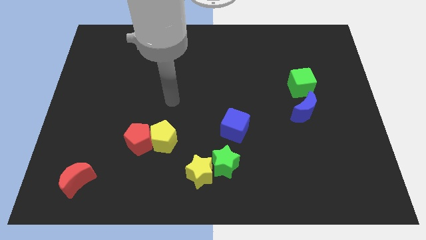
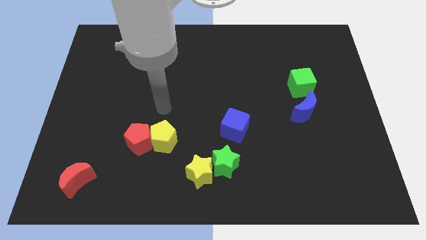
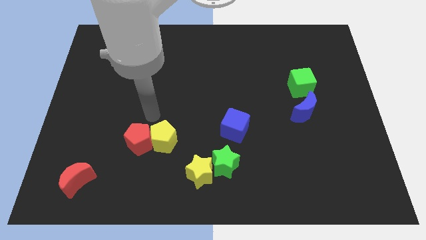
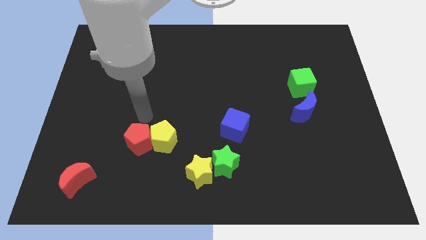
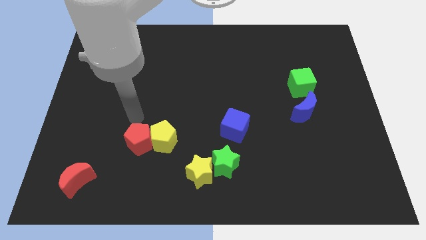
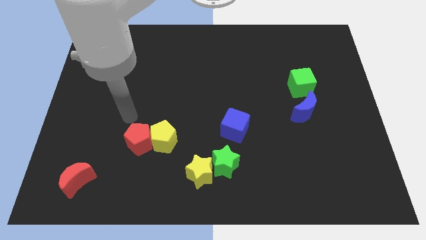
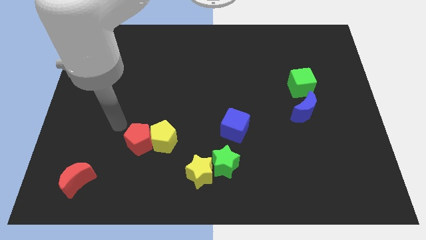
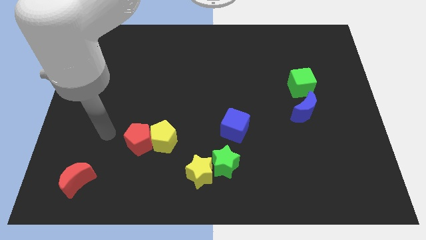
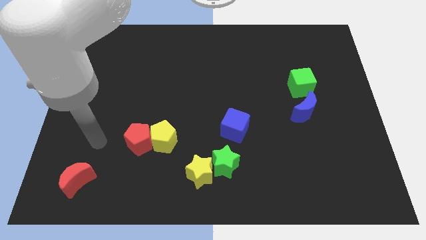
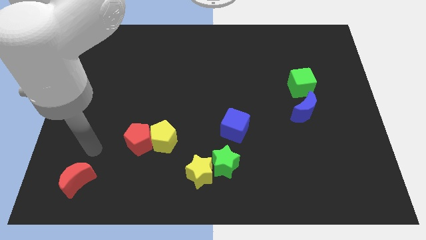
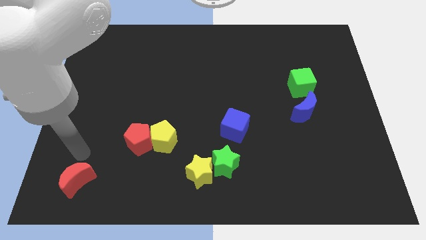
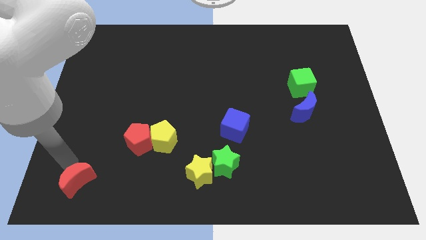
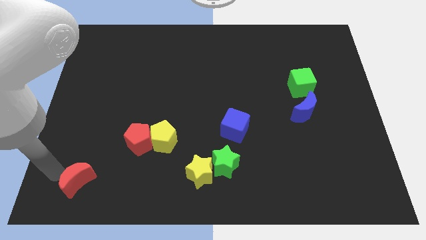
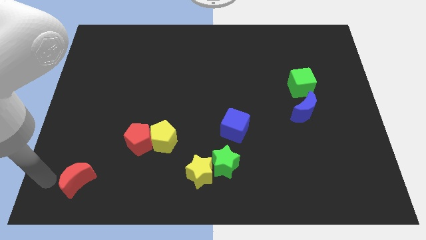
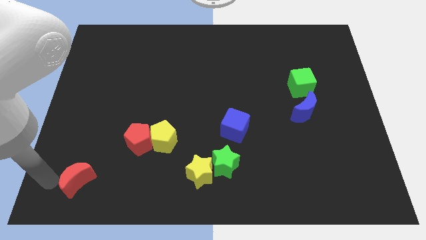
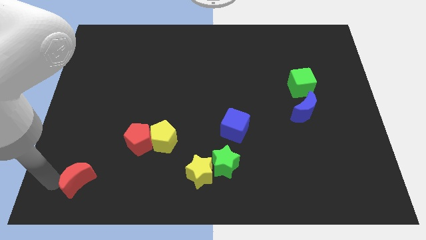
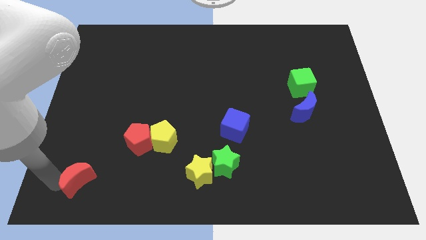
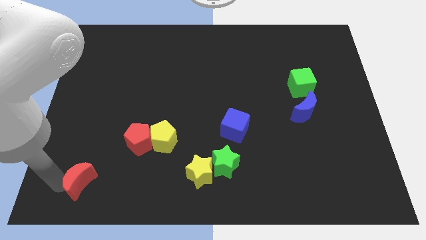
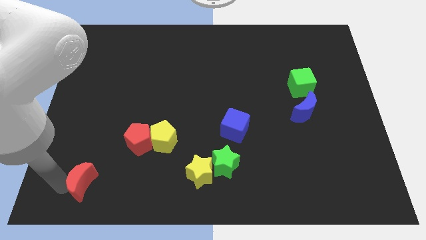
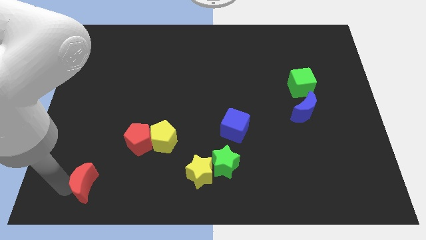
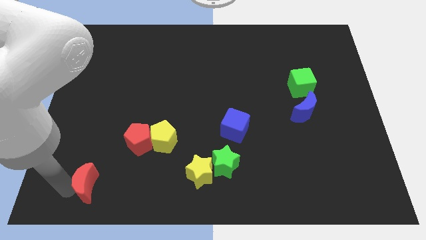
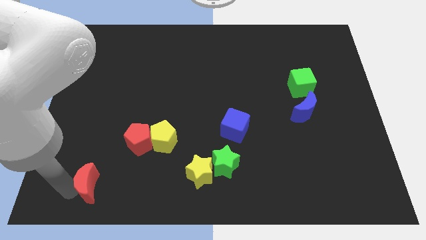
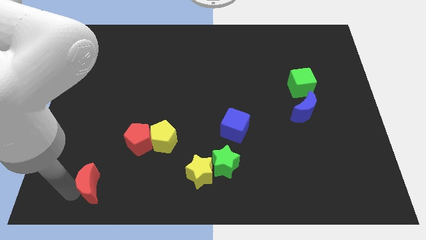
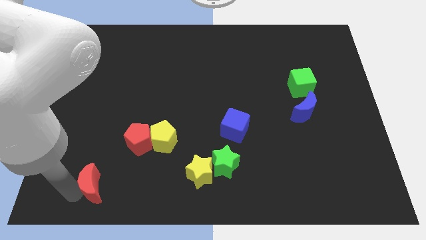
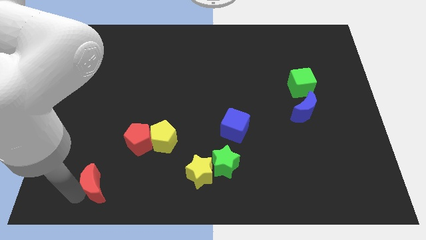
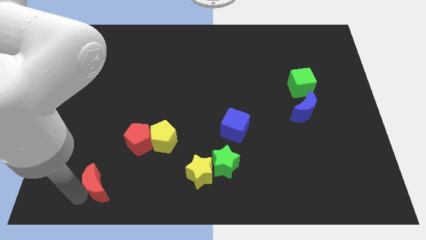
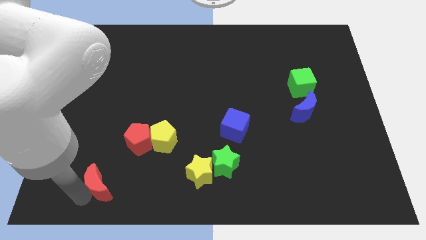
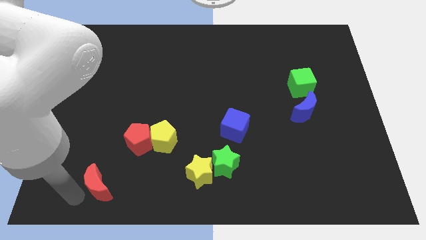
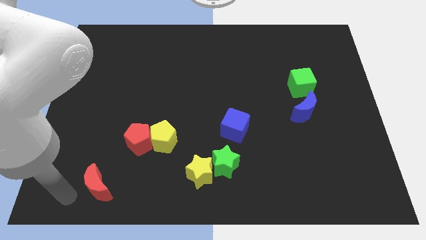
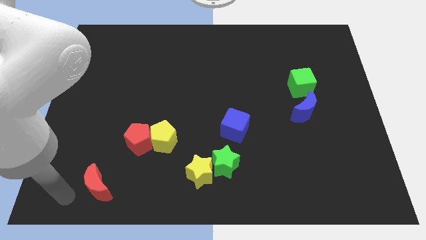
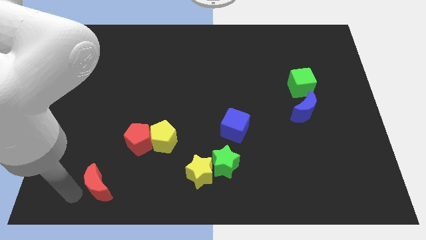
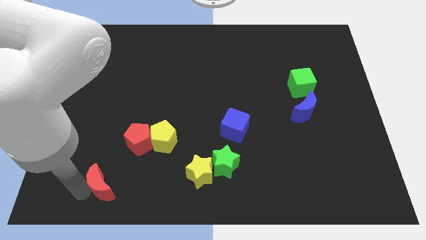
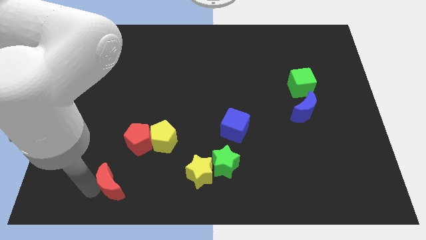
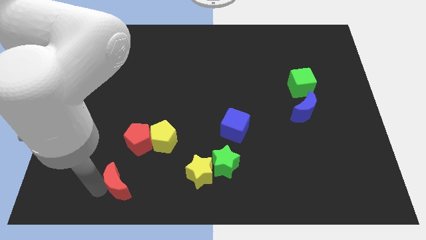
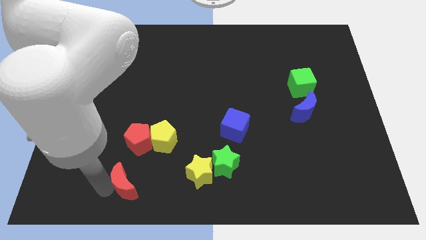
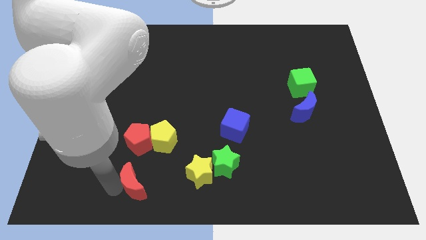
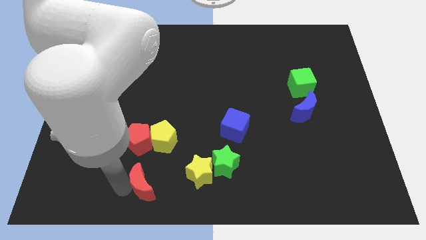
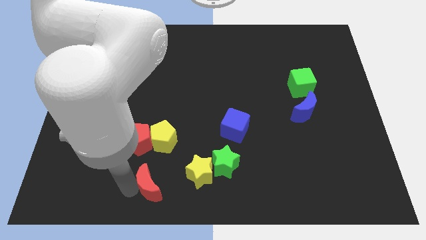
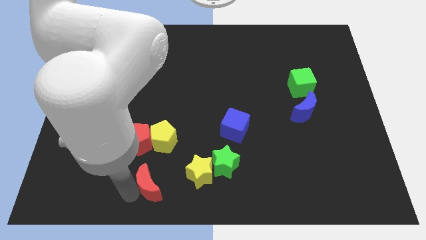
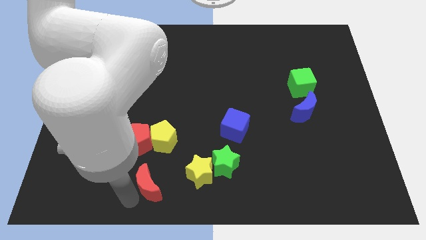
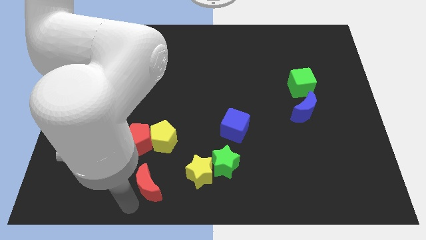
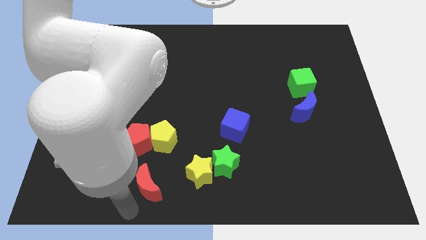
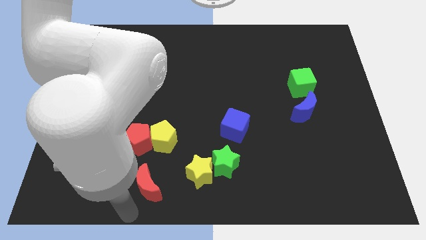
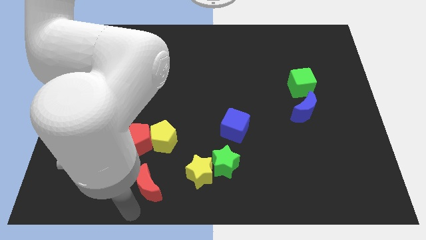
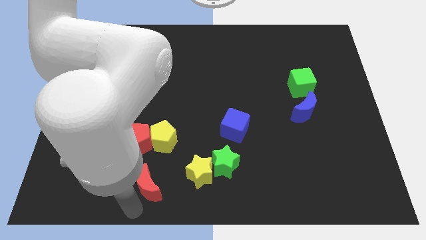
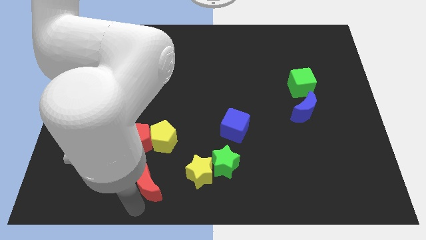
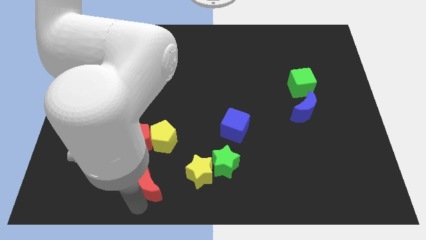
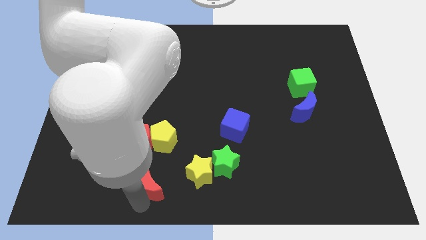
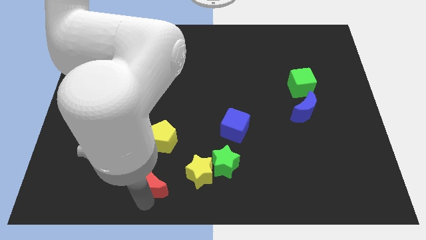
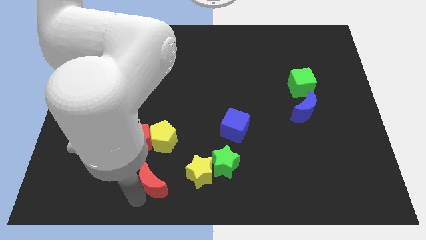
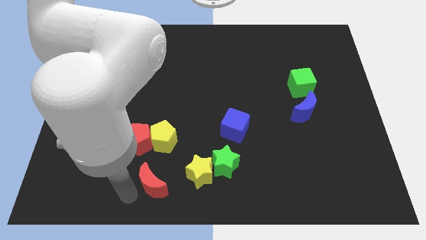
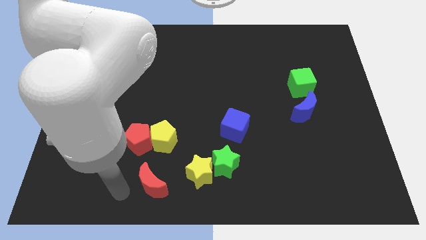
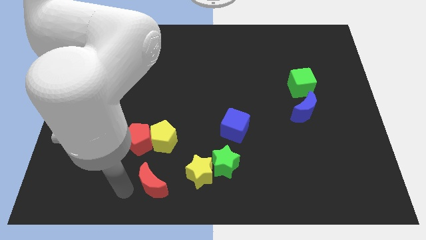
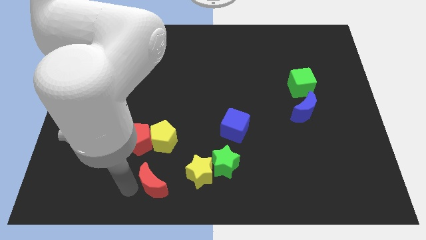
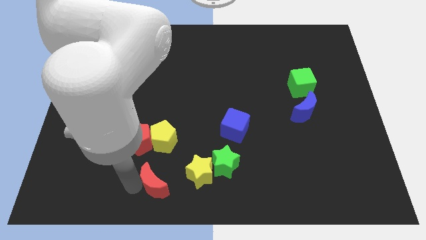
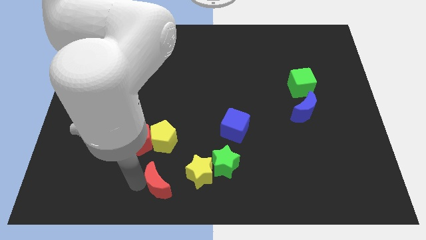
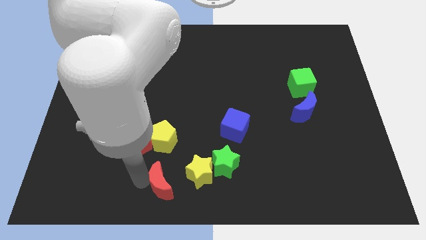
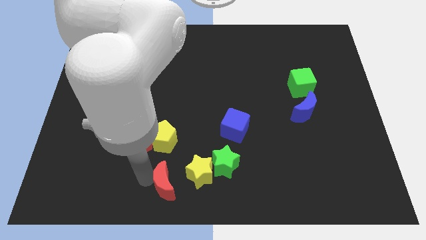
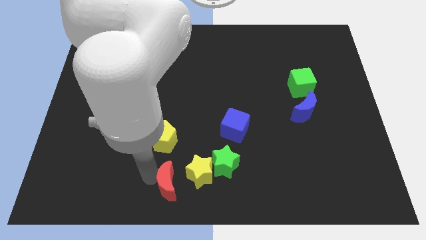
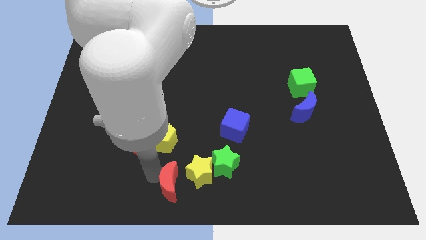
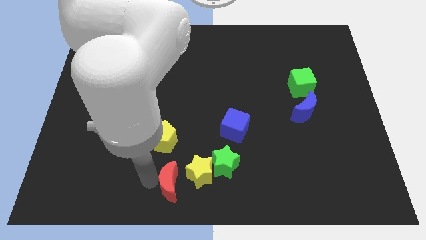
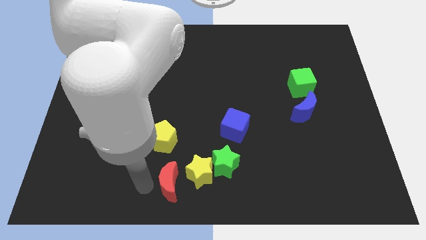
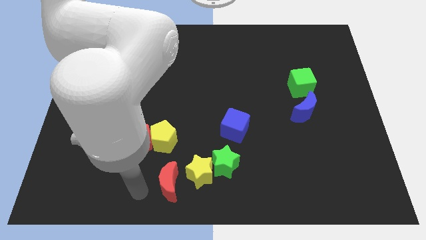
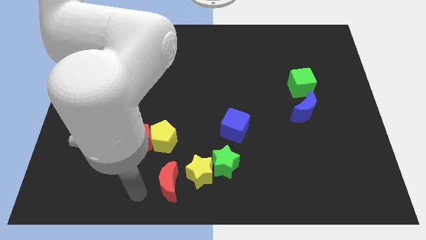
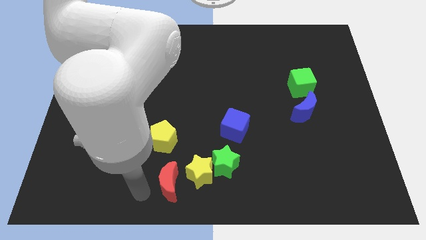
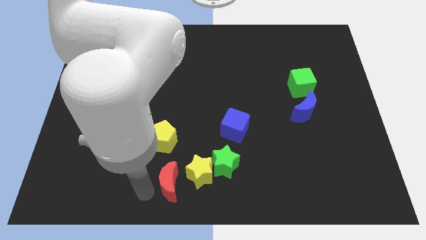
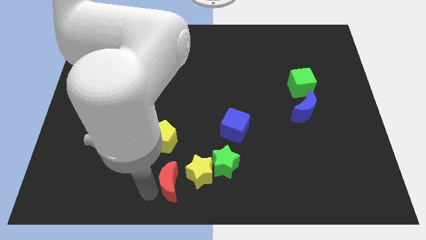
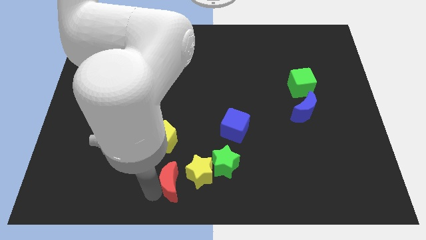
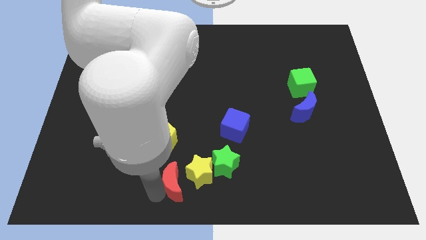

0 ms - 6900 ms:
put the red moon towards the yellow star
